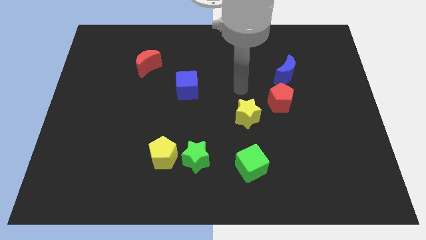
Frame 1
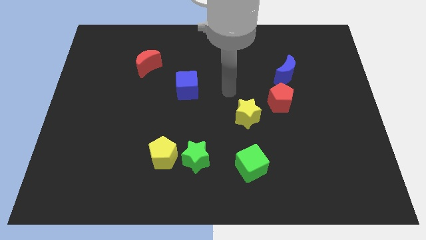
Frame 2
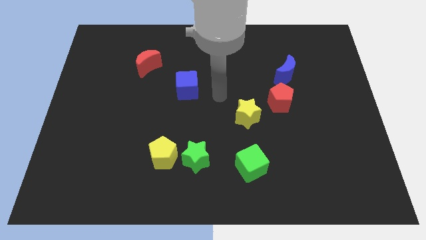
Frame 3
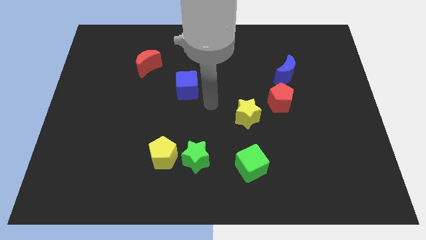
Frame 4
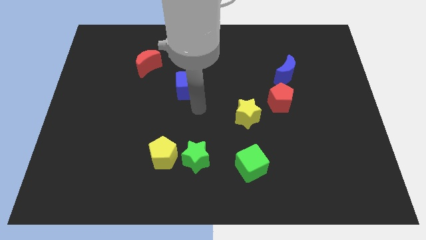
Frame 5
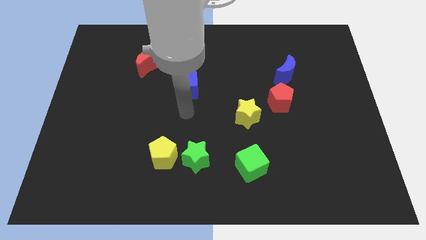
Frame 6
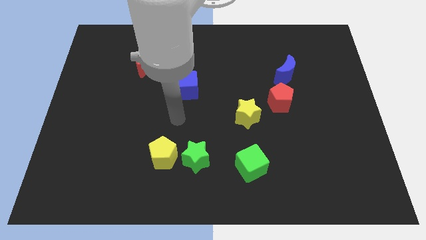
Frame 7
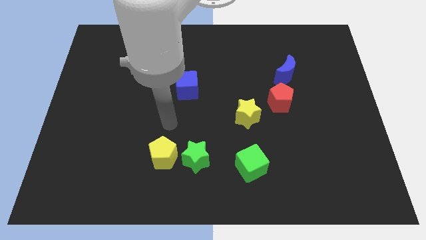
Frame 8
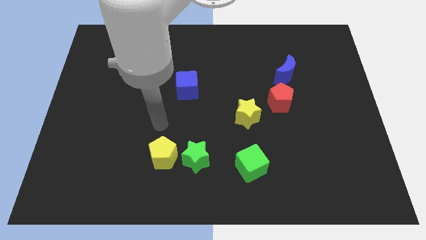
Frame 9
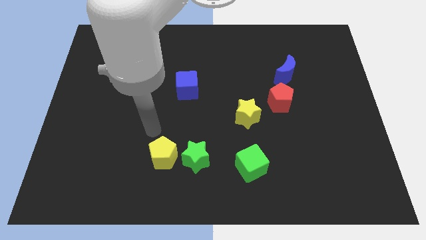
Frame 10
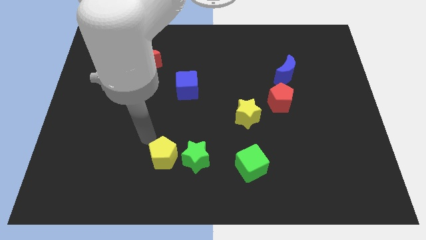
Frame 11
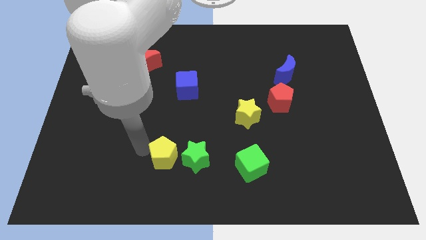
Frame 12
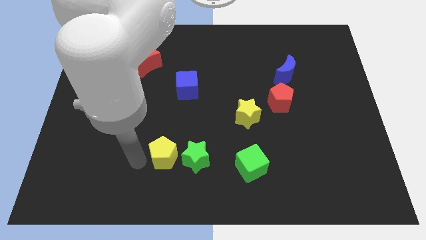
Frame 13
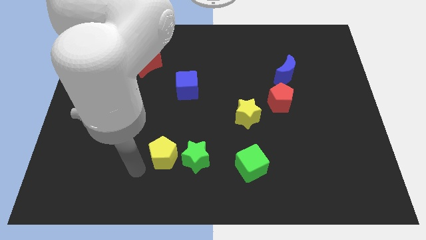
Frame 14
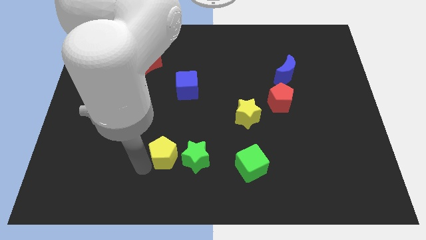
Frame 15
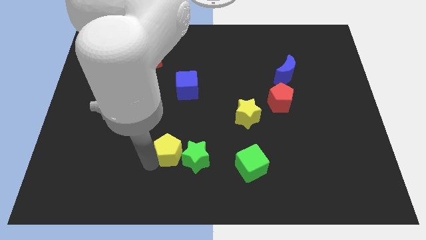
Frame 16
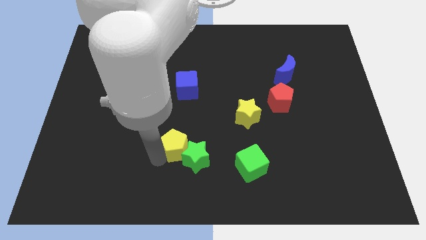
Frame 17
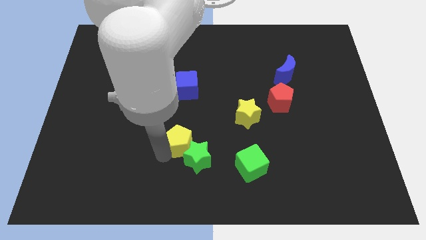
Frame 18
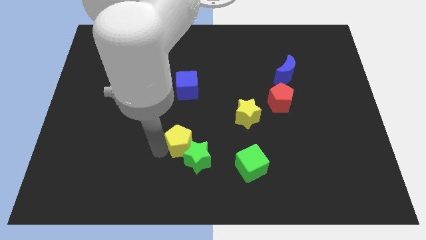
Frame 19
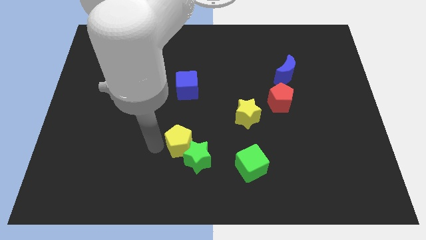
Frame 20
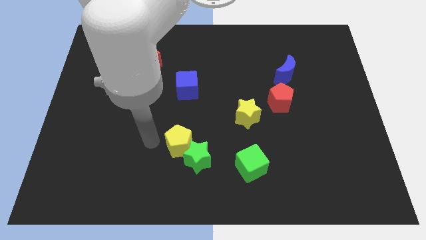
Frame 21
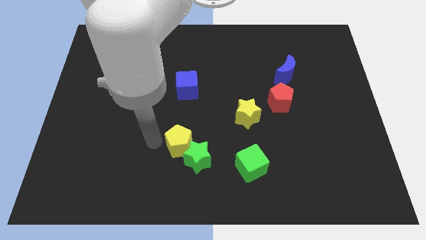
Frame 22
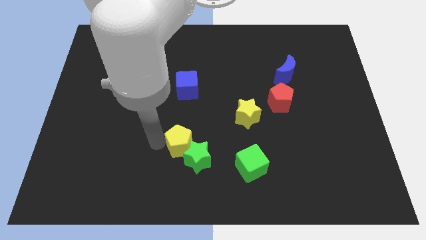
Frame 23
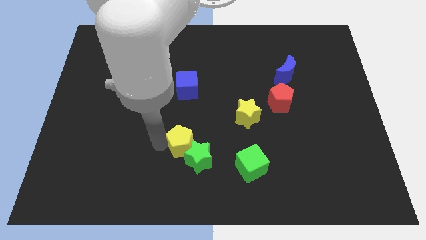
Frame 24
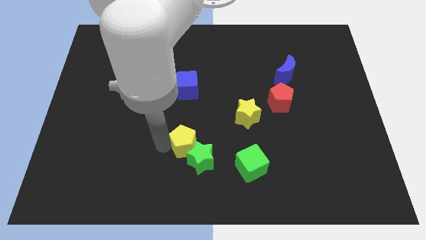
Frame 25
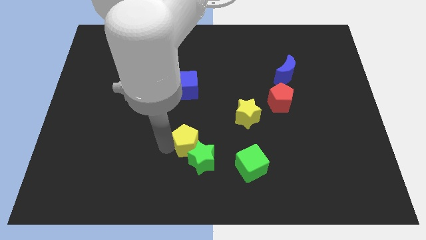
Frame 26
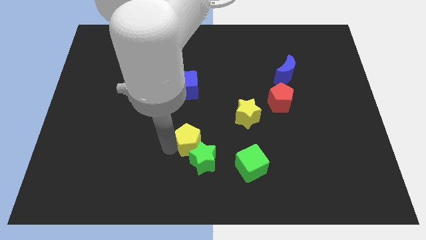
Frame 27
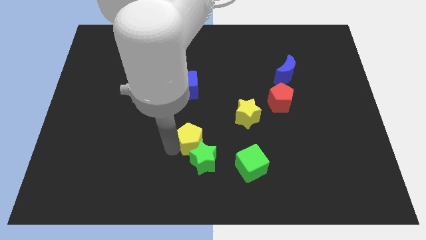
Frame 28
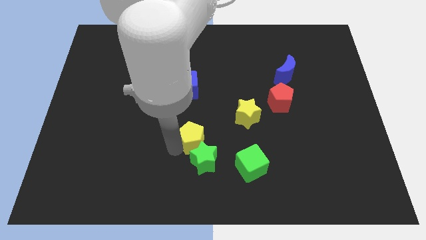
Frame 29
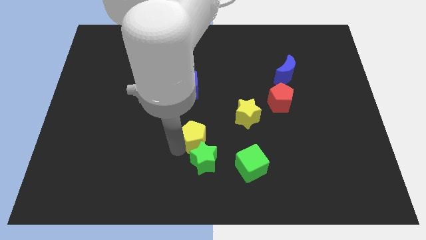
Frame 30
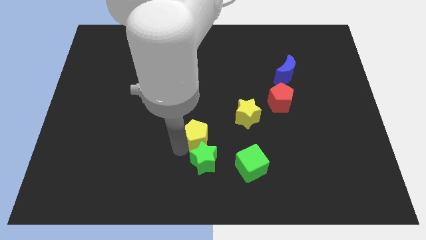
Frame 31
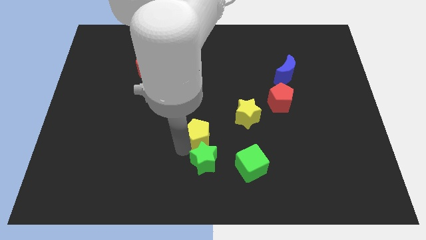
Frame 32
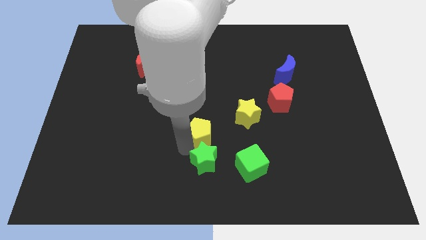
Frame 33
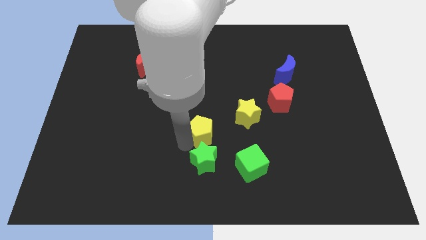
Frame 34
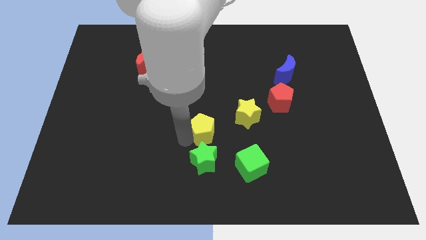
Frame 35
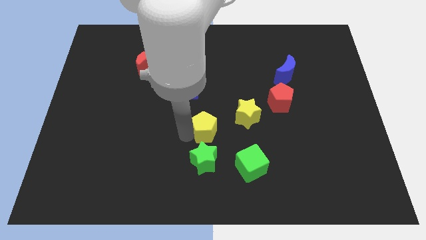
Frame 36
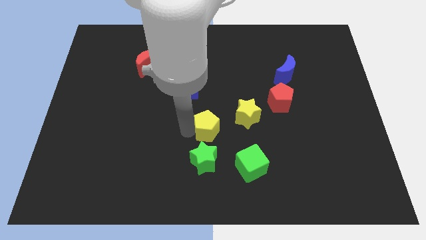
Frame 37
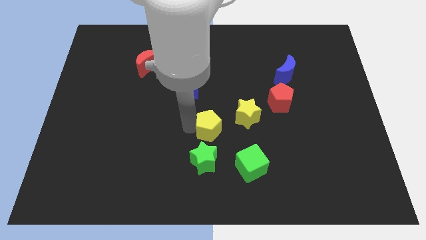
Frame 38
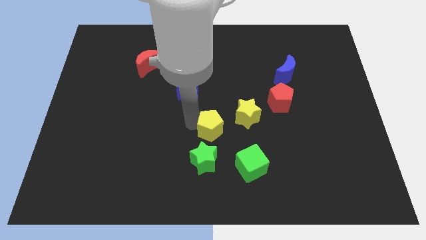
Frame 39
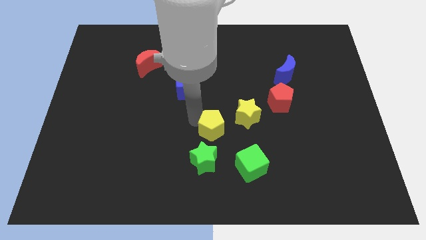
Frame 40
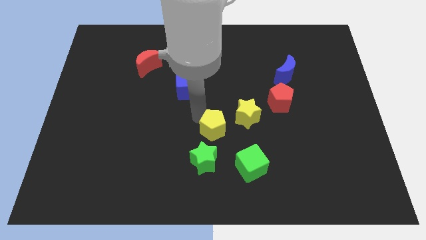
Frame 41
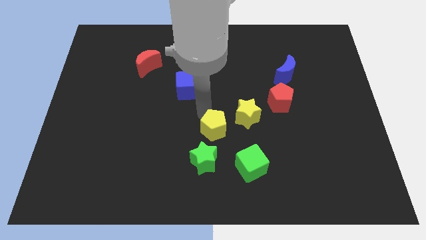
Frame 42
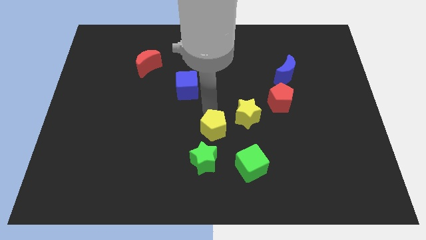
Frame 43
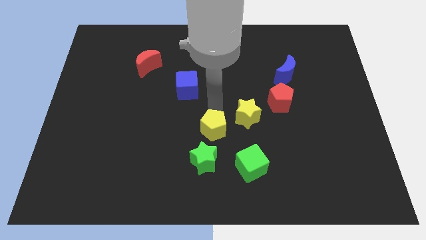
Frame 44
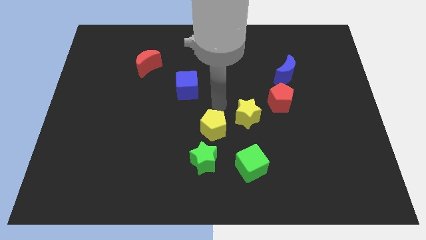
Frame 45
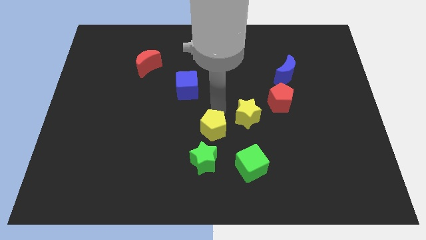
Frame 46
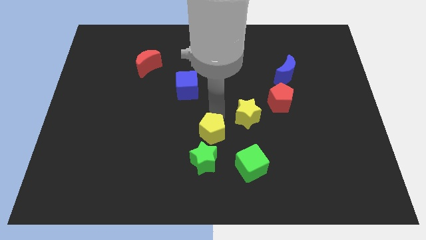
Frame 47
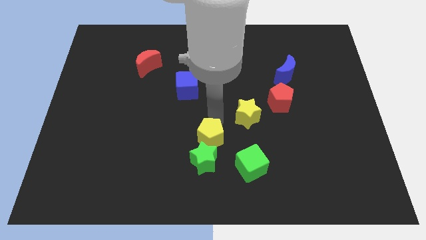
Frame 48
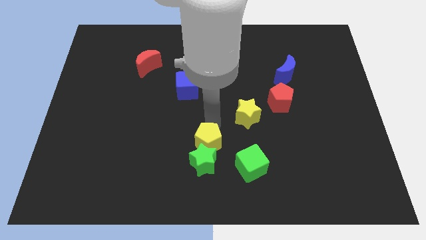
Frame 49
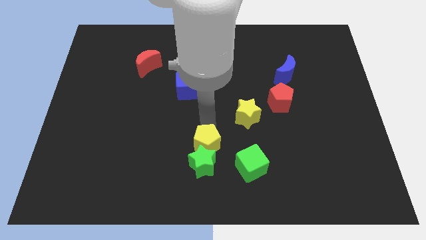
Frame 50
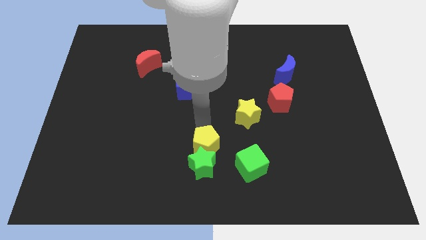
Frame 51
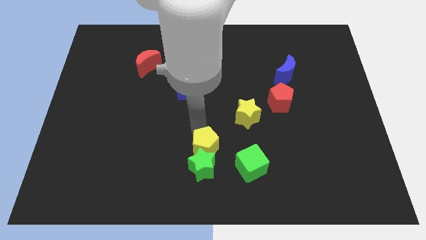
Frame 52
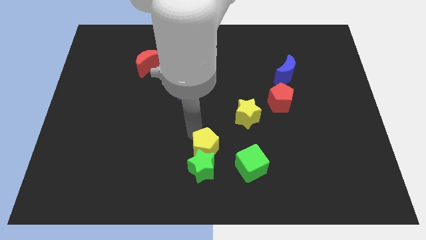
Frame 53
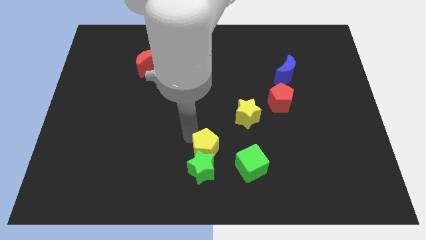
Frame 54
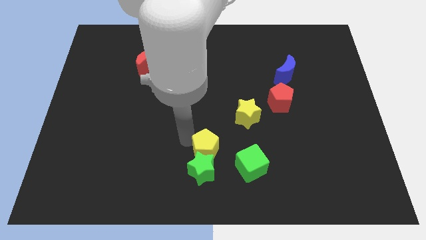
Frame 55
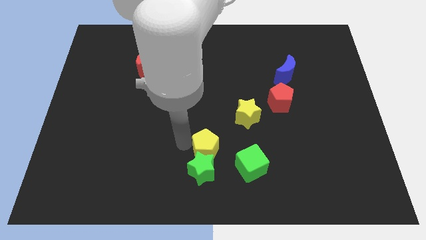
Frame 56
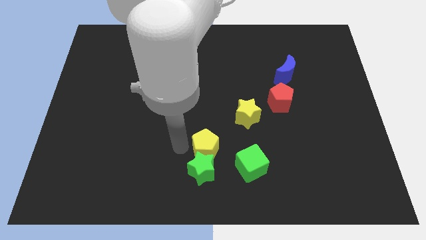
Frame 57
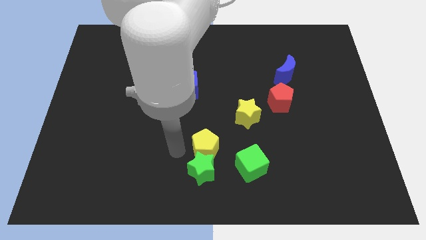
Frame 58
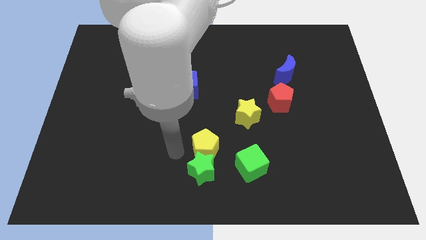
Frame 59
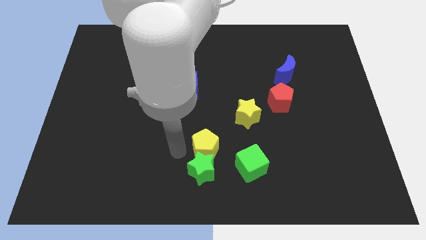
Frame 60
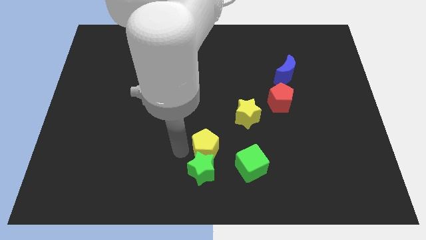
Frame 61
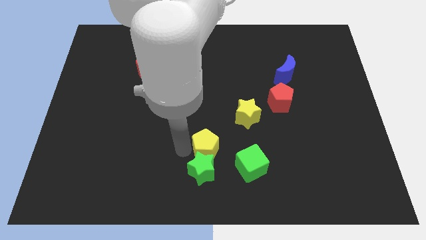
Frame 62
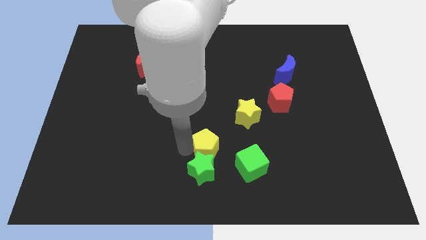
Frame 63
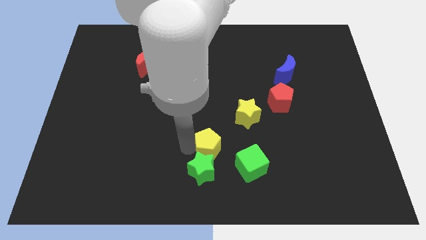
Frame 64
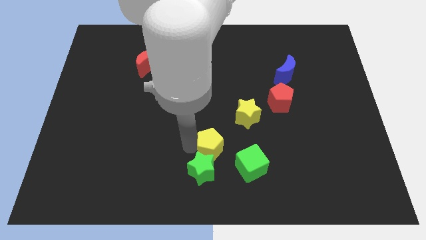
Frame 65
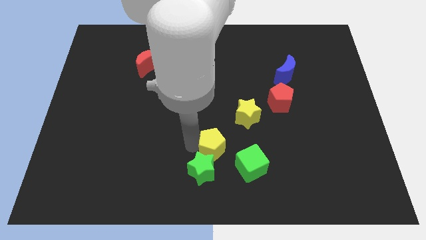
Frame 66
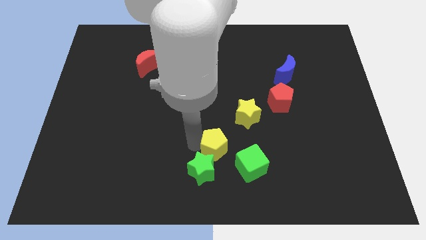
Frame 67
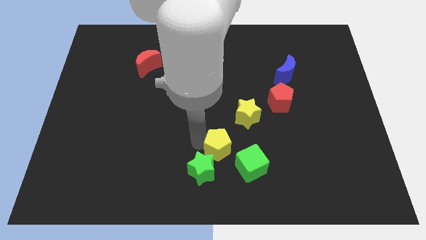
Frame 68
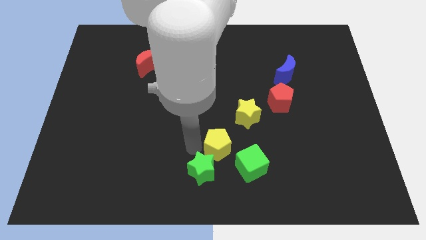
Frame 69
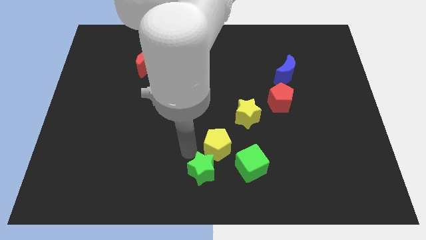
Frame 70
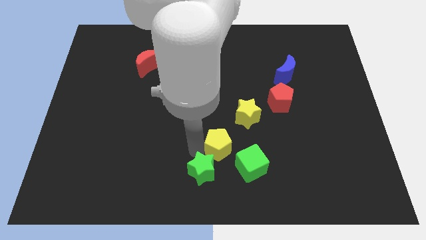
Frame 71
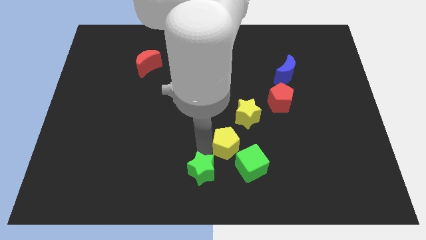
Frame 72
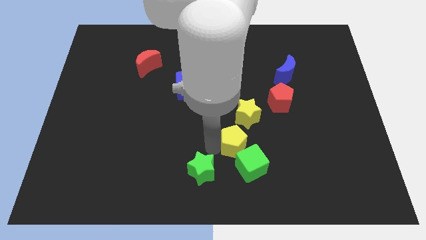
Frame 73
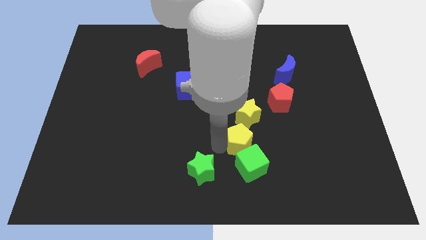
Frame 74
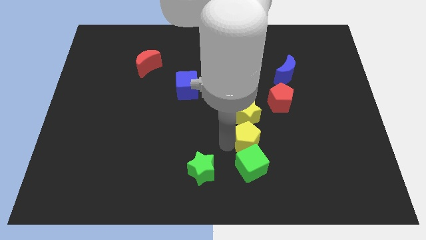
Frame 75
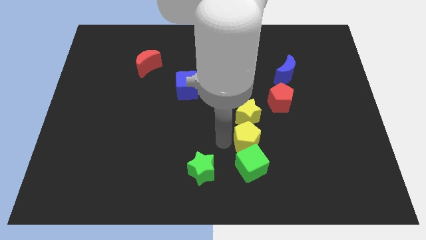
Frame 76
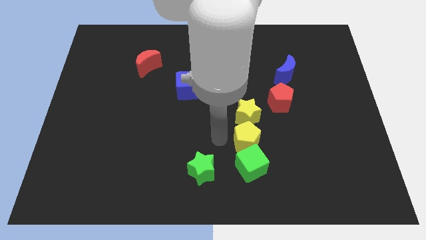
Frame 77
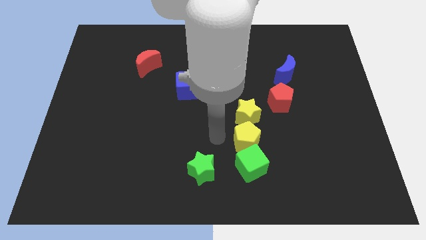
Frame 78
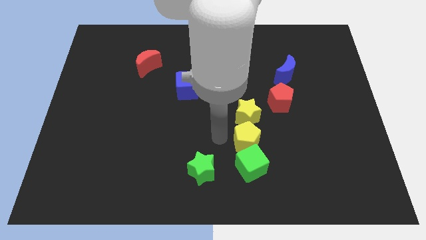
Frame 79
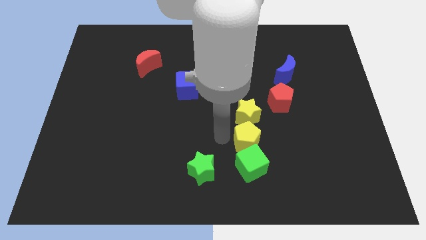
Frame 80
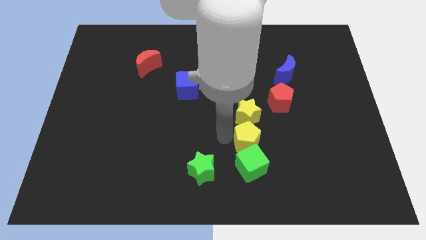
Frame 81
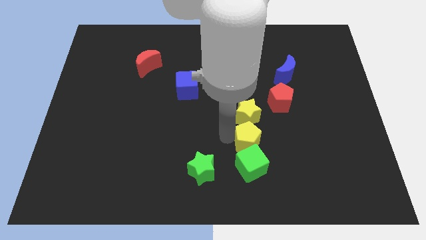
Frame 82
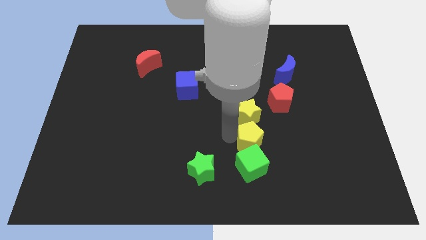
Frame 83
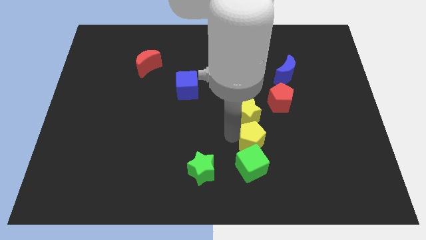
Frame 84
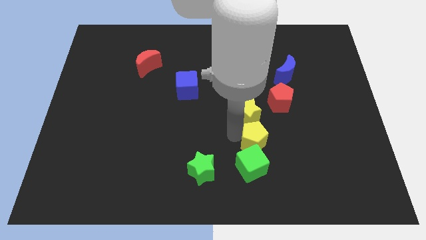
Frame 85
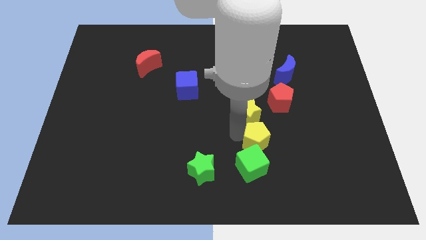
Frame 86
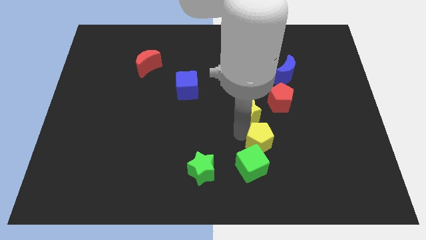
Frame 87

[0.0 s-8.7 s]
slide the yellow pentagon to the right
